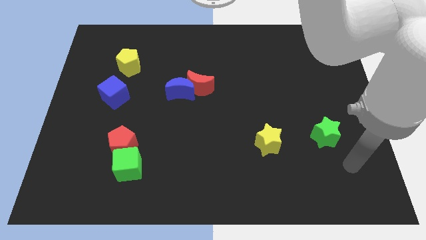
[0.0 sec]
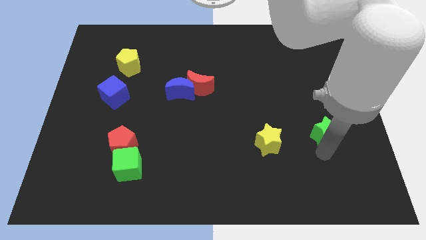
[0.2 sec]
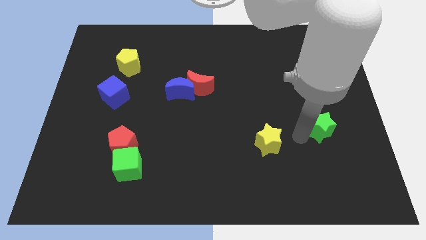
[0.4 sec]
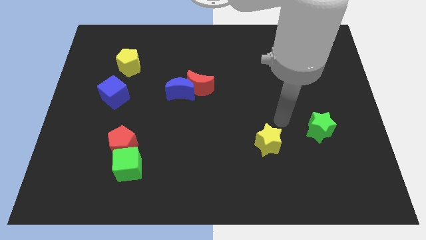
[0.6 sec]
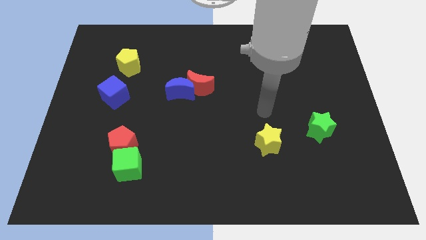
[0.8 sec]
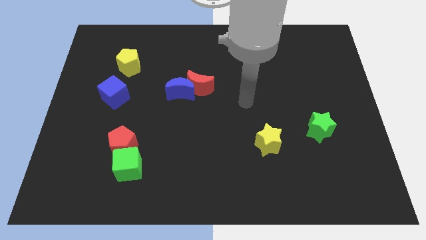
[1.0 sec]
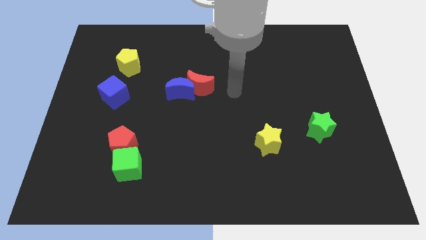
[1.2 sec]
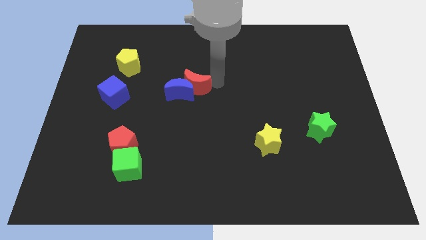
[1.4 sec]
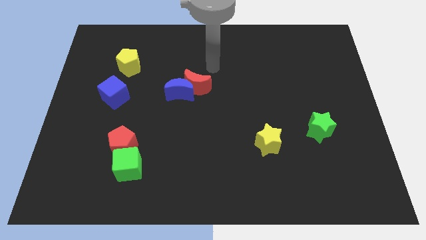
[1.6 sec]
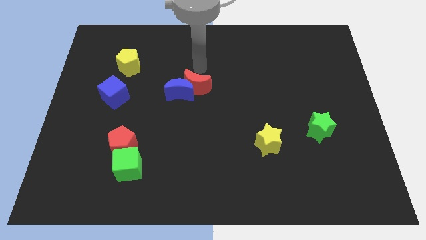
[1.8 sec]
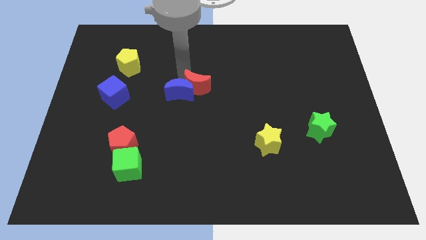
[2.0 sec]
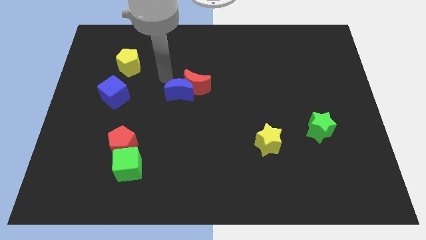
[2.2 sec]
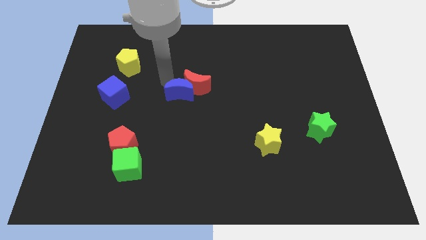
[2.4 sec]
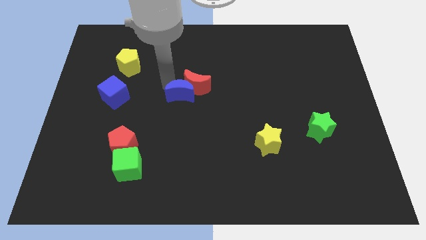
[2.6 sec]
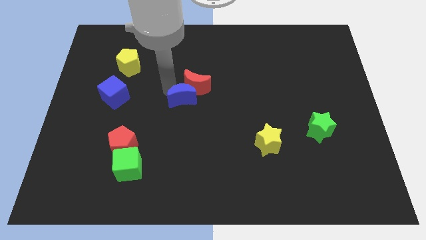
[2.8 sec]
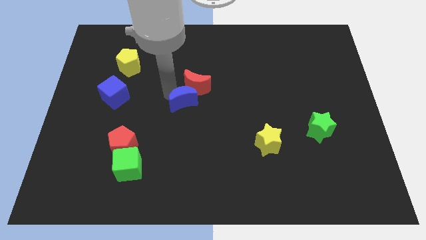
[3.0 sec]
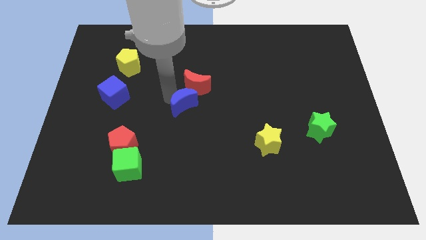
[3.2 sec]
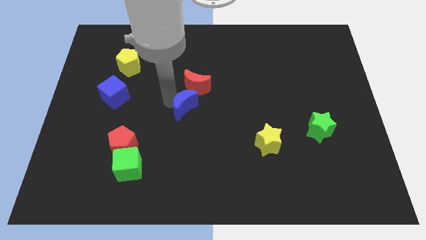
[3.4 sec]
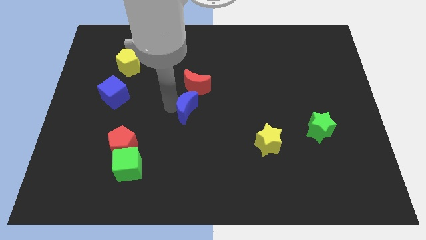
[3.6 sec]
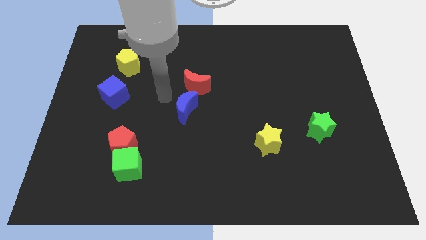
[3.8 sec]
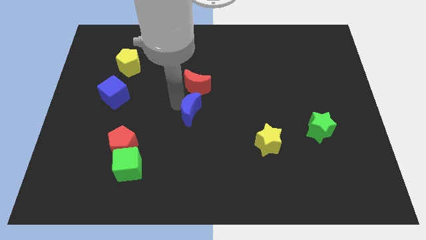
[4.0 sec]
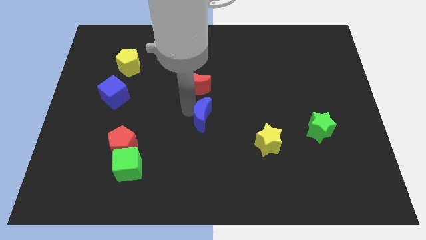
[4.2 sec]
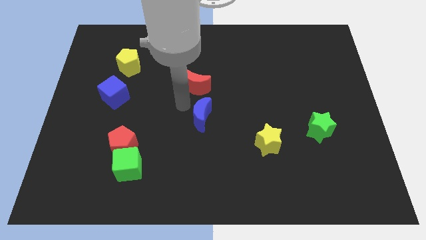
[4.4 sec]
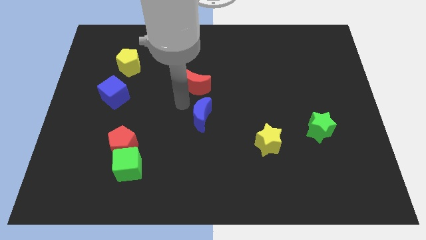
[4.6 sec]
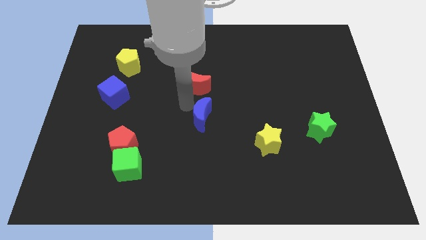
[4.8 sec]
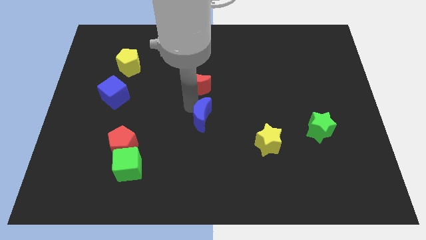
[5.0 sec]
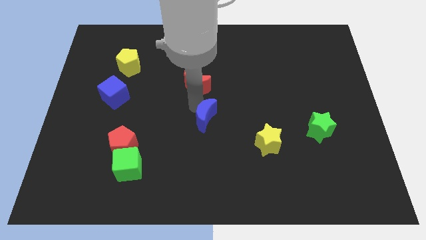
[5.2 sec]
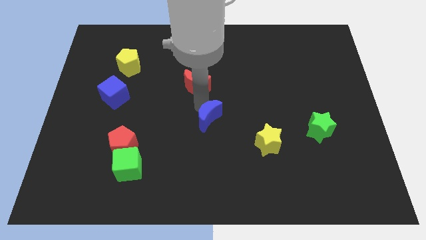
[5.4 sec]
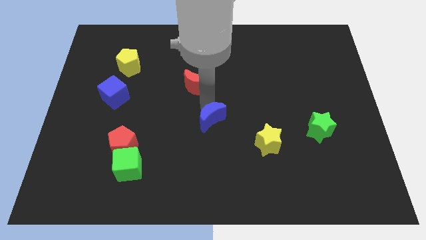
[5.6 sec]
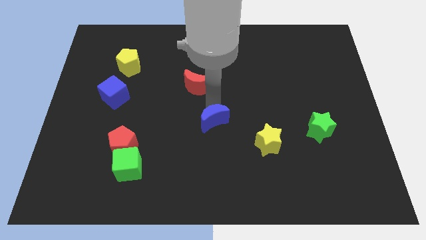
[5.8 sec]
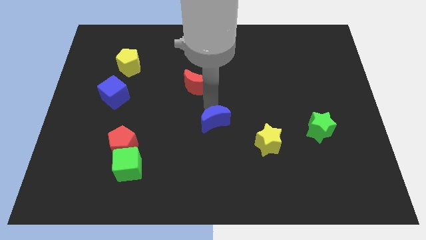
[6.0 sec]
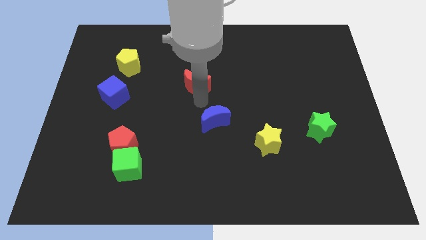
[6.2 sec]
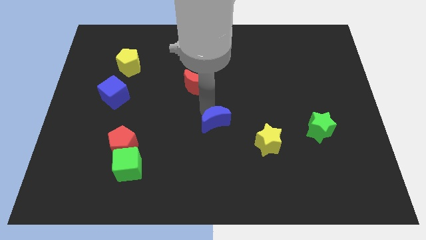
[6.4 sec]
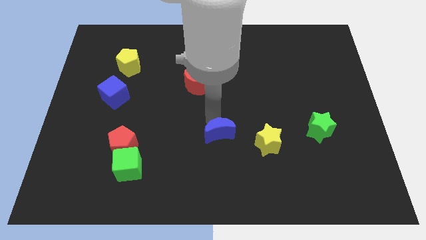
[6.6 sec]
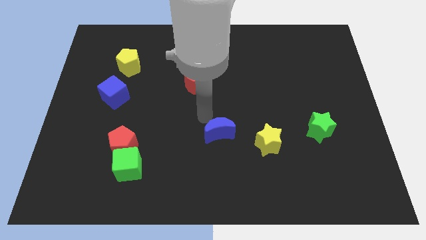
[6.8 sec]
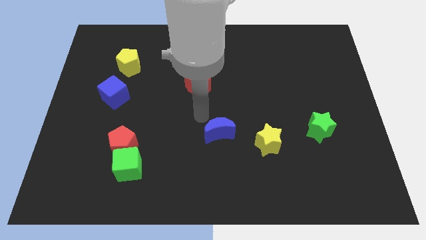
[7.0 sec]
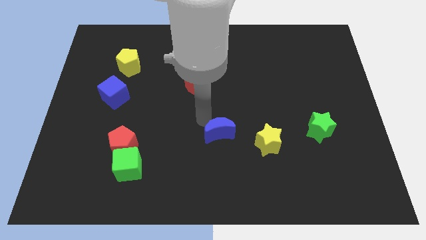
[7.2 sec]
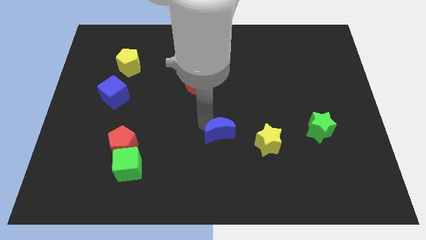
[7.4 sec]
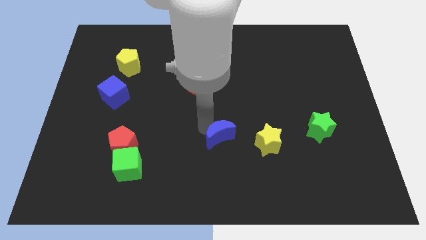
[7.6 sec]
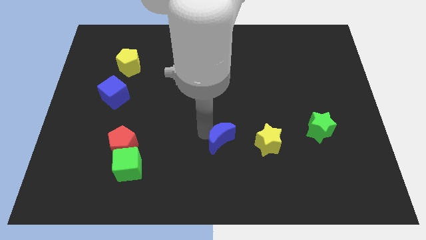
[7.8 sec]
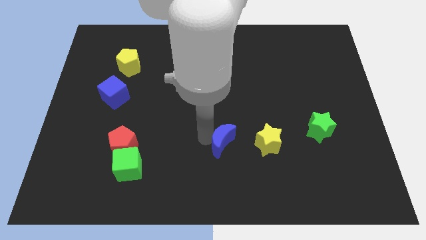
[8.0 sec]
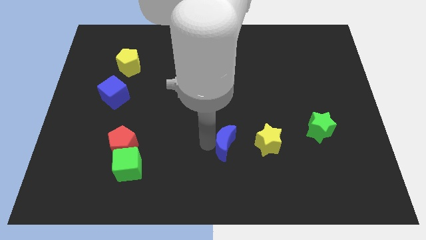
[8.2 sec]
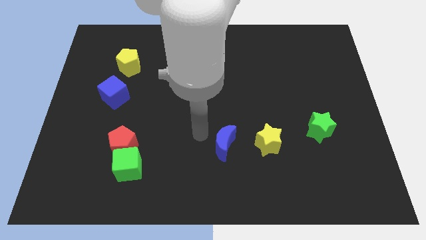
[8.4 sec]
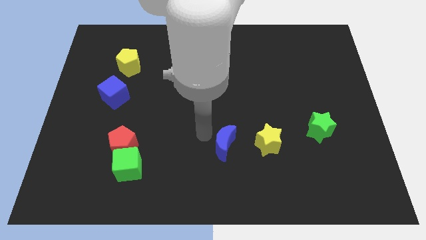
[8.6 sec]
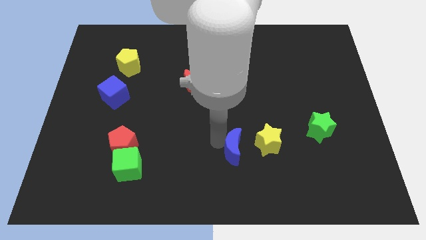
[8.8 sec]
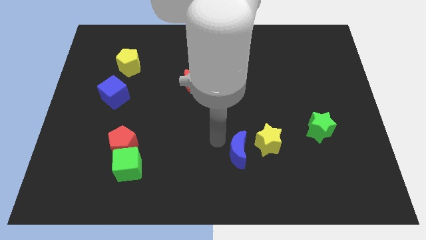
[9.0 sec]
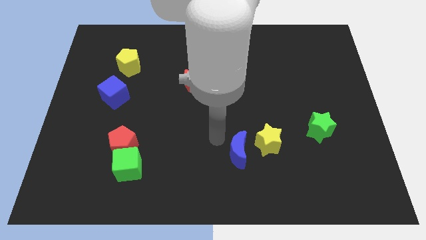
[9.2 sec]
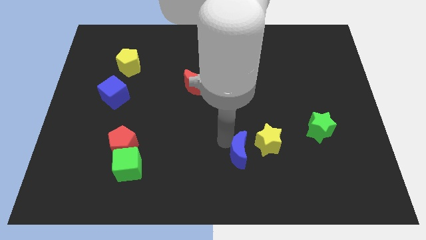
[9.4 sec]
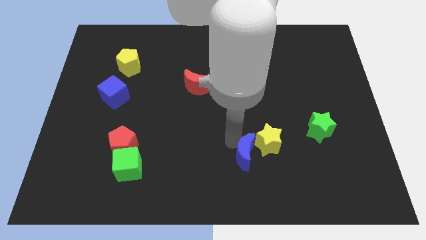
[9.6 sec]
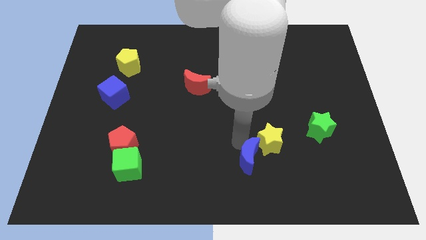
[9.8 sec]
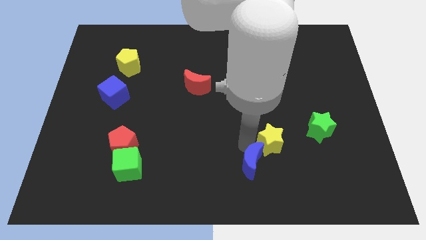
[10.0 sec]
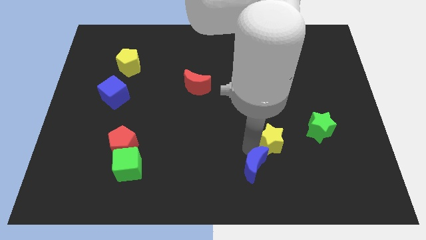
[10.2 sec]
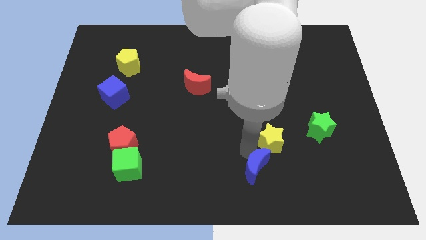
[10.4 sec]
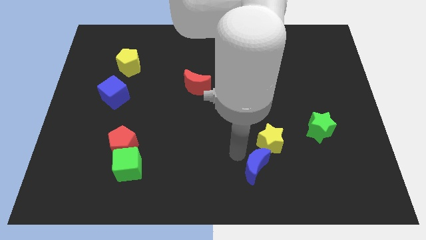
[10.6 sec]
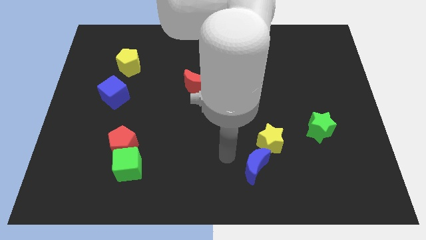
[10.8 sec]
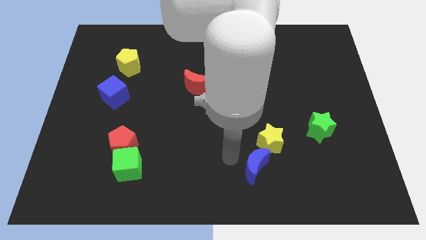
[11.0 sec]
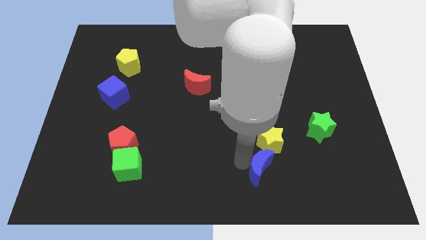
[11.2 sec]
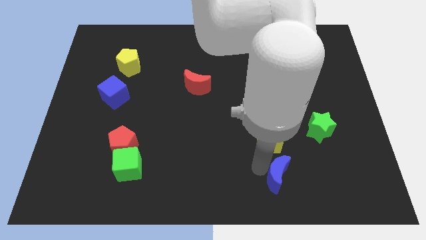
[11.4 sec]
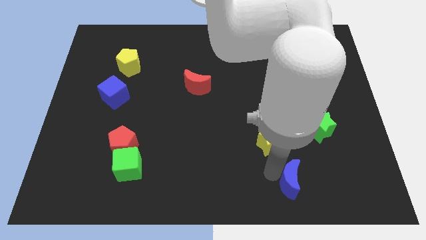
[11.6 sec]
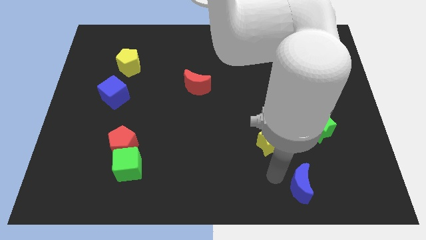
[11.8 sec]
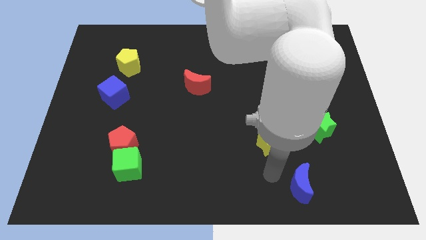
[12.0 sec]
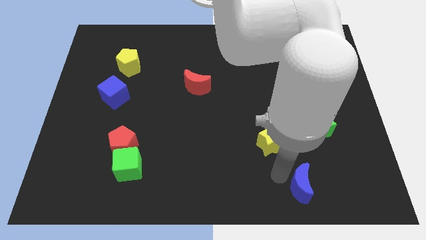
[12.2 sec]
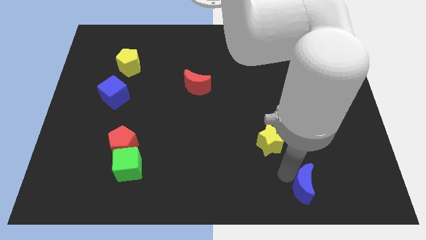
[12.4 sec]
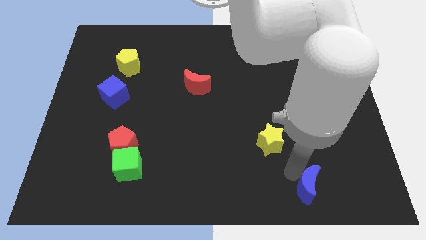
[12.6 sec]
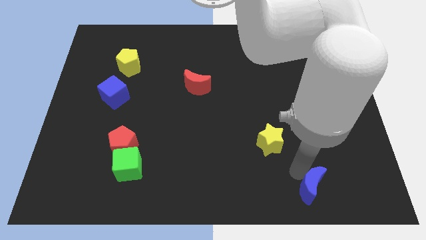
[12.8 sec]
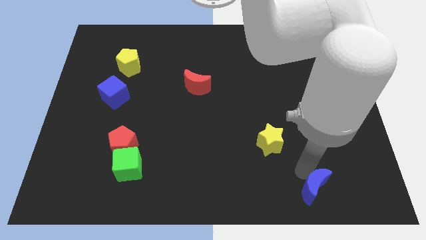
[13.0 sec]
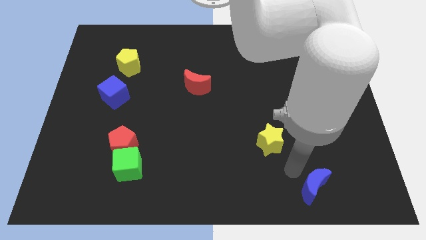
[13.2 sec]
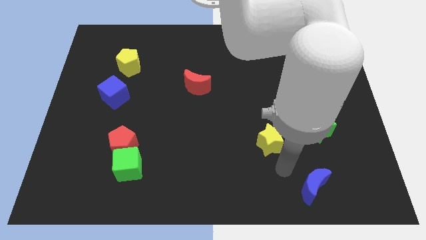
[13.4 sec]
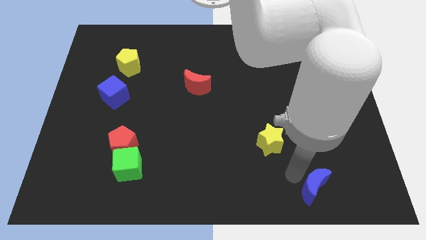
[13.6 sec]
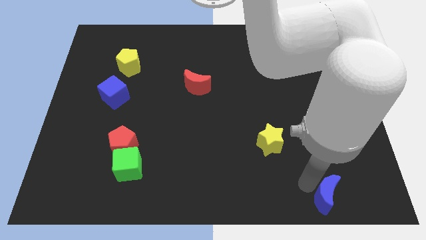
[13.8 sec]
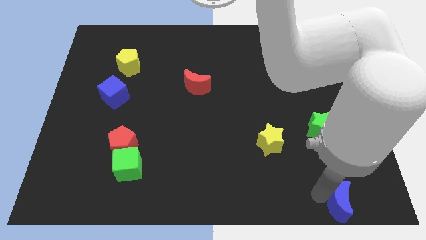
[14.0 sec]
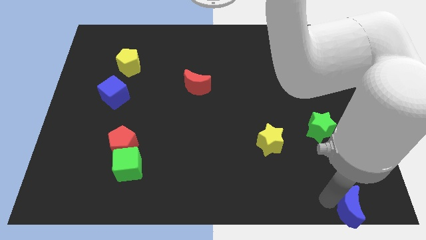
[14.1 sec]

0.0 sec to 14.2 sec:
slide the blue moon to the lower right corner

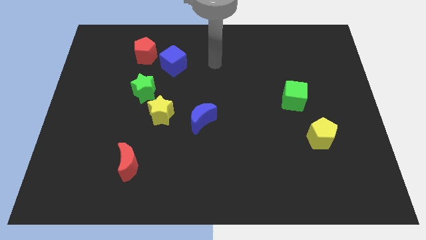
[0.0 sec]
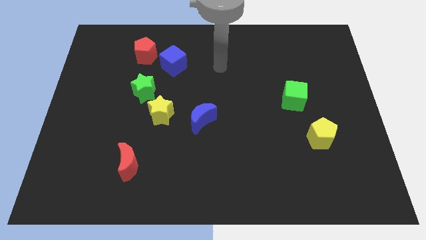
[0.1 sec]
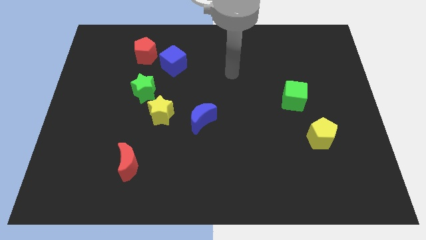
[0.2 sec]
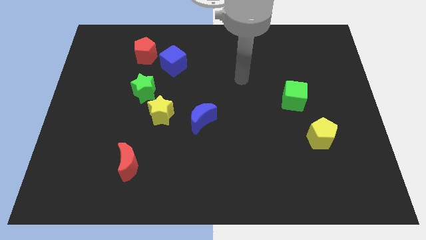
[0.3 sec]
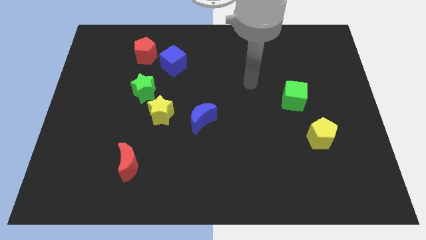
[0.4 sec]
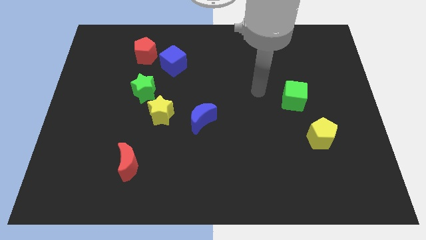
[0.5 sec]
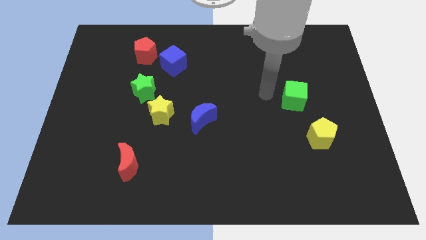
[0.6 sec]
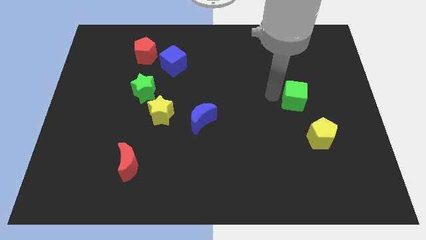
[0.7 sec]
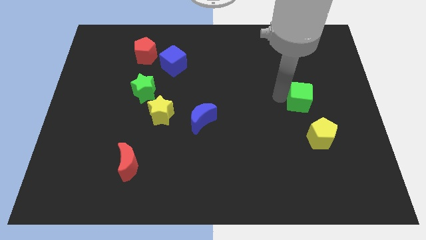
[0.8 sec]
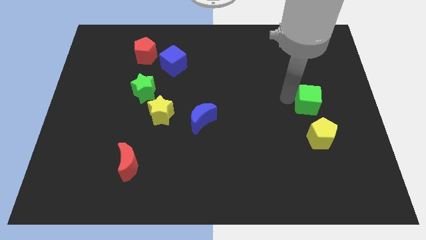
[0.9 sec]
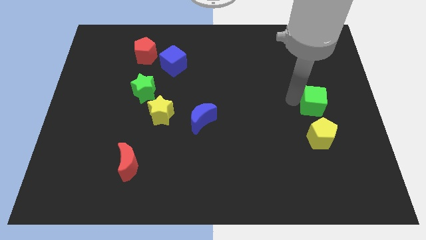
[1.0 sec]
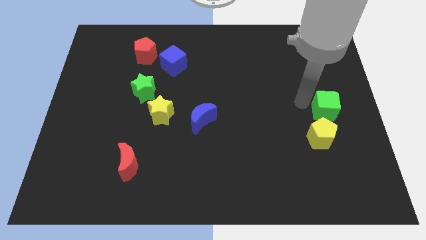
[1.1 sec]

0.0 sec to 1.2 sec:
put the green cube to the right side of the board
